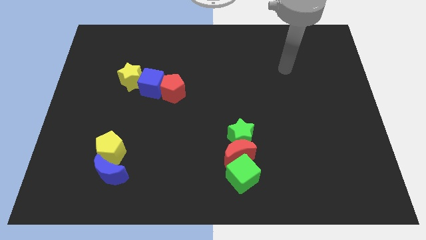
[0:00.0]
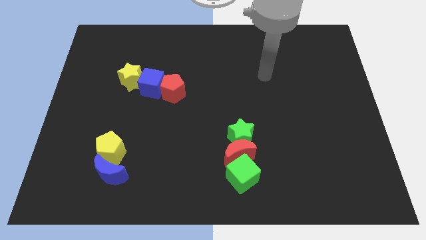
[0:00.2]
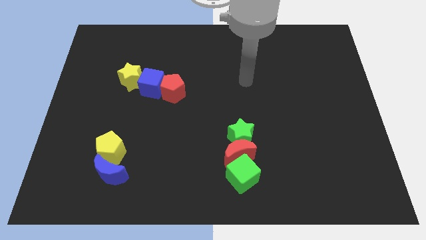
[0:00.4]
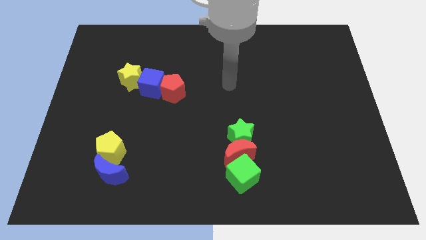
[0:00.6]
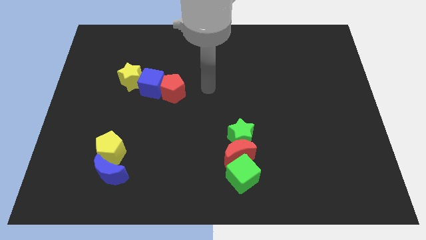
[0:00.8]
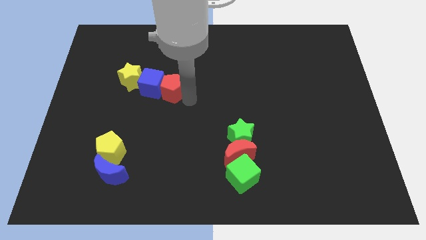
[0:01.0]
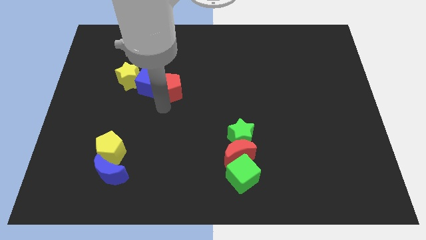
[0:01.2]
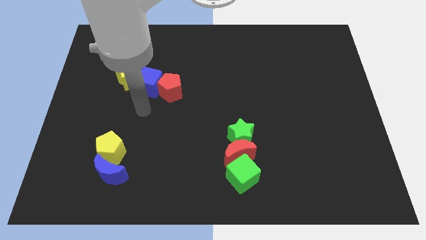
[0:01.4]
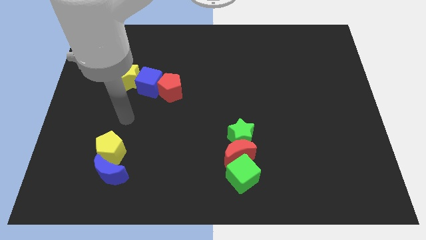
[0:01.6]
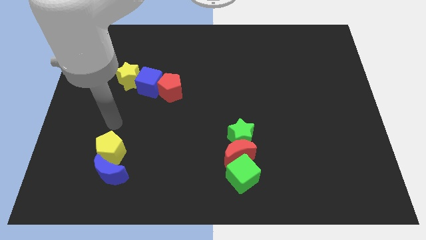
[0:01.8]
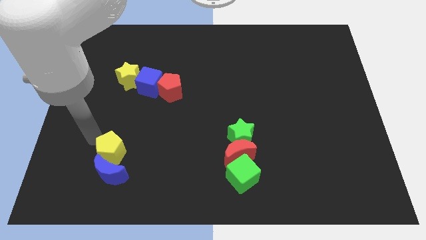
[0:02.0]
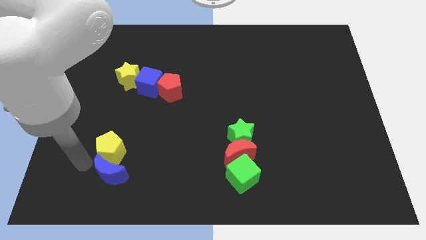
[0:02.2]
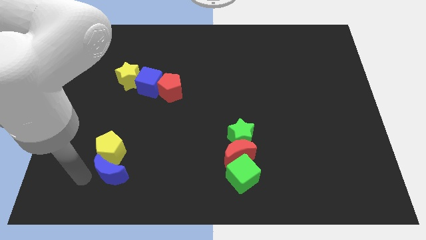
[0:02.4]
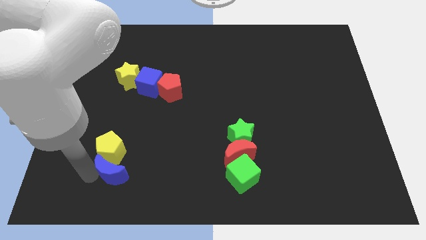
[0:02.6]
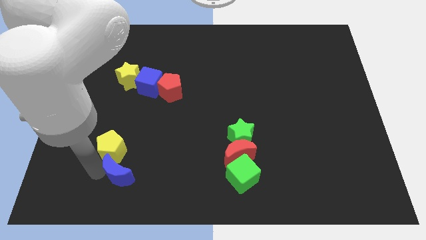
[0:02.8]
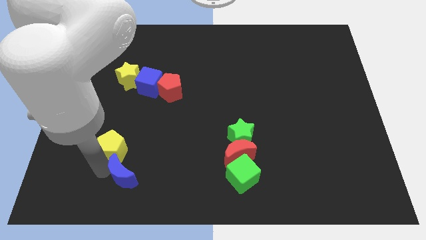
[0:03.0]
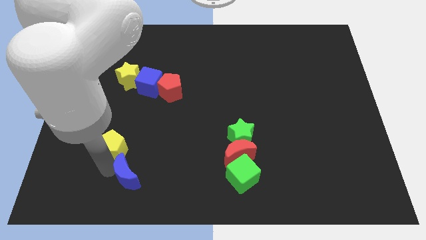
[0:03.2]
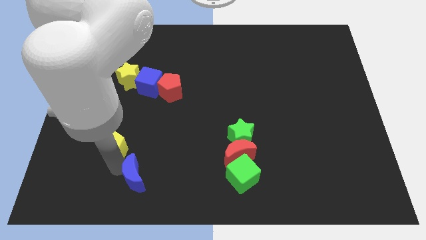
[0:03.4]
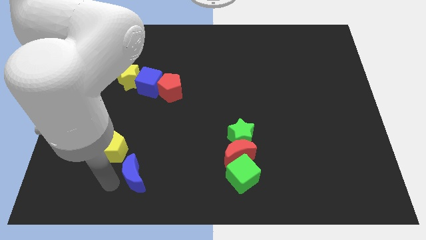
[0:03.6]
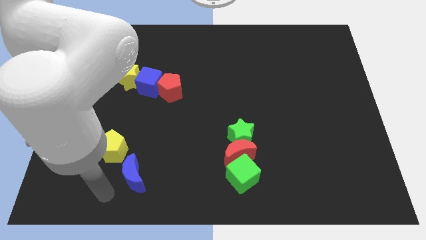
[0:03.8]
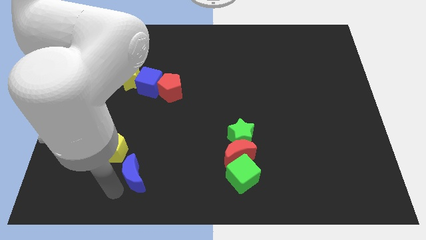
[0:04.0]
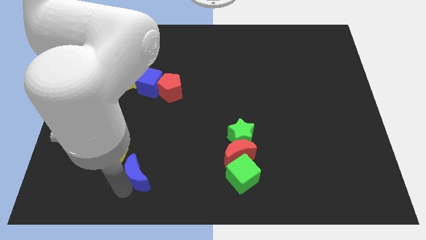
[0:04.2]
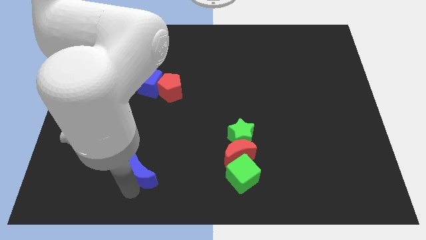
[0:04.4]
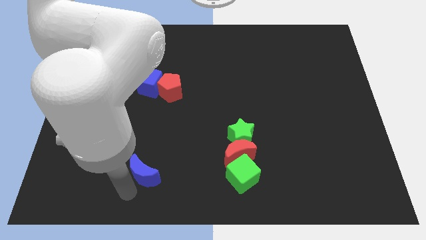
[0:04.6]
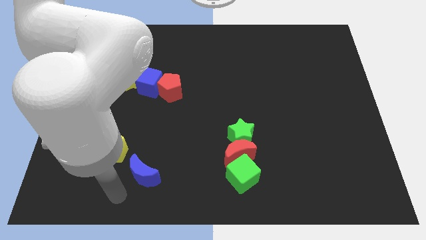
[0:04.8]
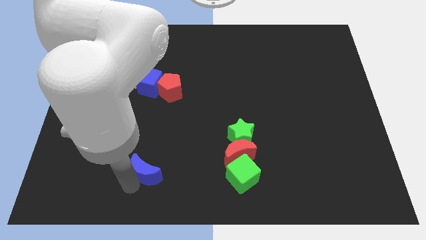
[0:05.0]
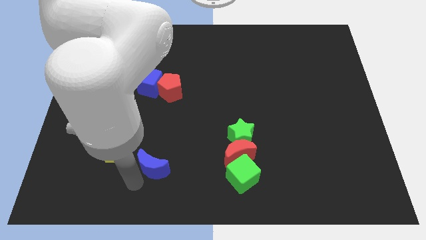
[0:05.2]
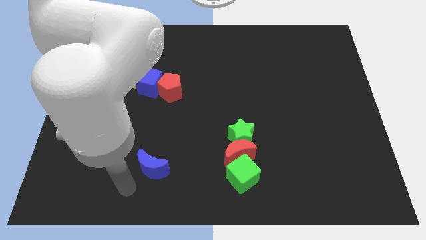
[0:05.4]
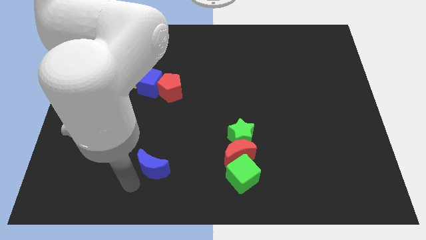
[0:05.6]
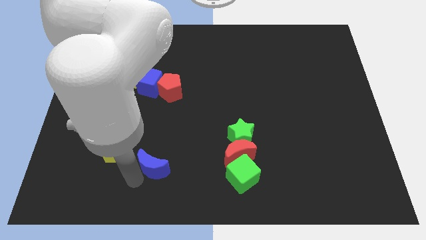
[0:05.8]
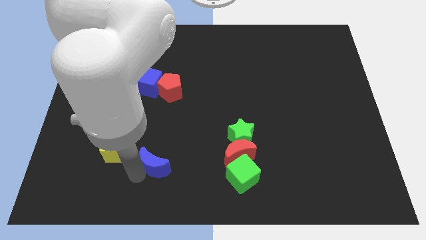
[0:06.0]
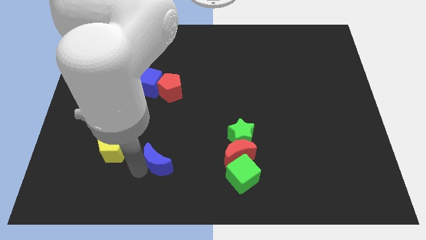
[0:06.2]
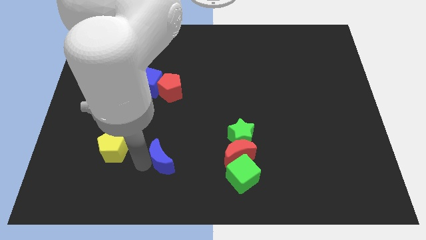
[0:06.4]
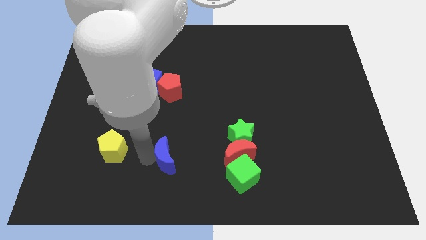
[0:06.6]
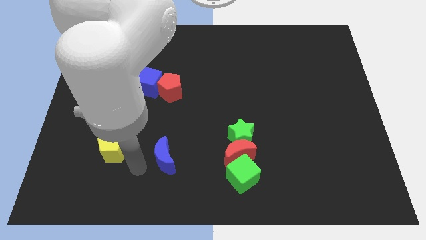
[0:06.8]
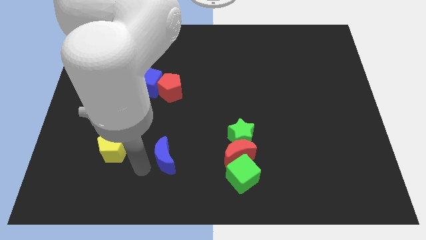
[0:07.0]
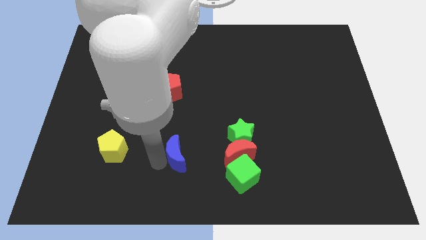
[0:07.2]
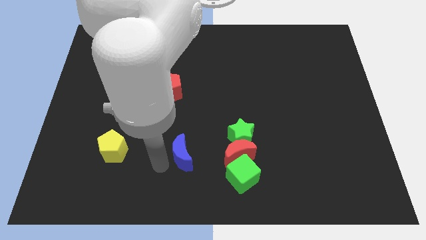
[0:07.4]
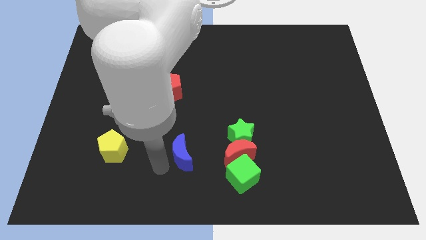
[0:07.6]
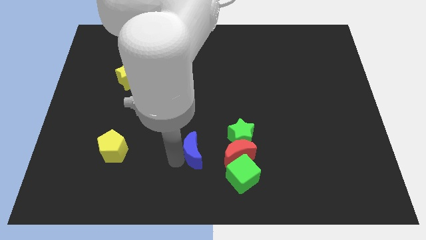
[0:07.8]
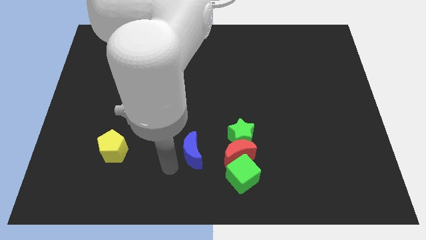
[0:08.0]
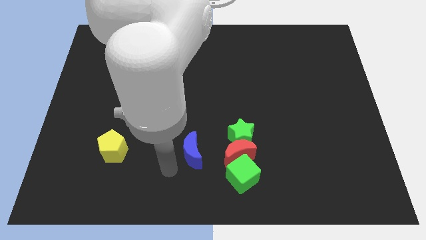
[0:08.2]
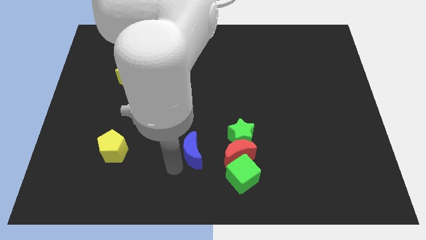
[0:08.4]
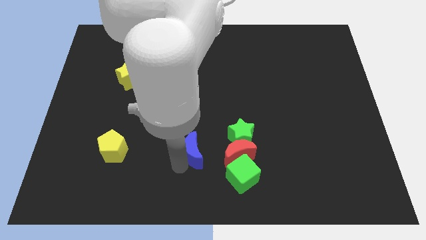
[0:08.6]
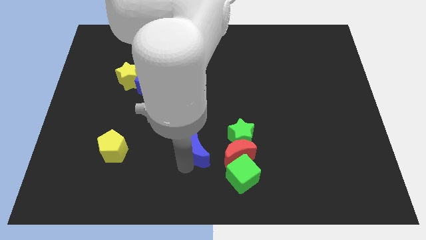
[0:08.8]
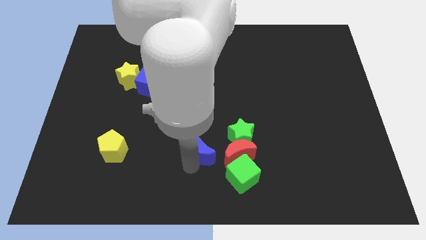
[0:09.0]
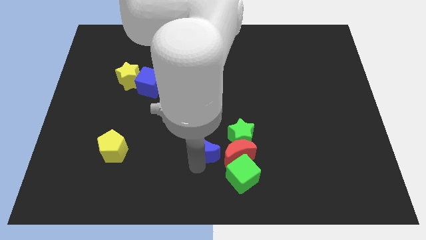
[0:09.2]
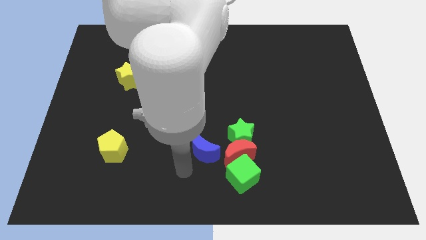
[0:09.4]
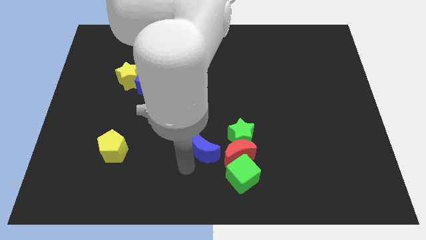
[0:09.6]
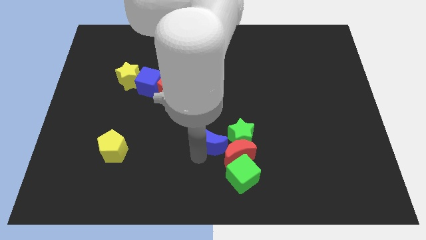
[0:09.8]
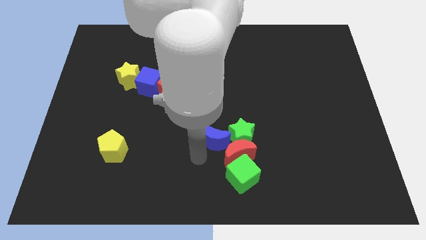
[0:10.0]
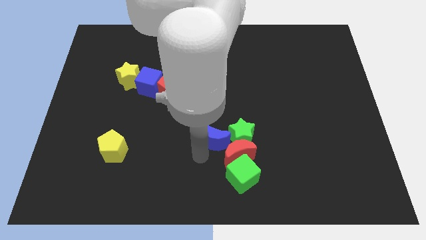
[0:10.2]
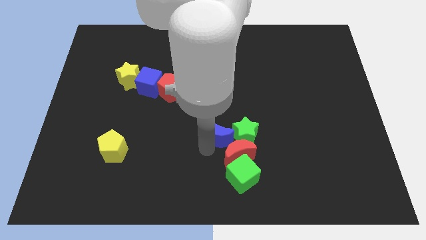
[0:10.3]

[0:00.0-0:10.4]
slide the blue moon to the top of the red moon

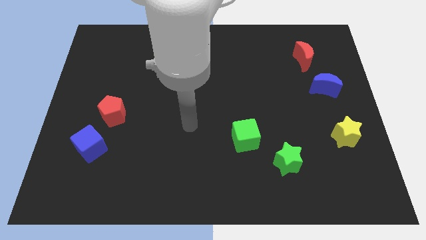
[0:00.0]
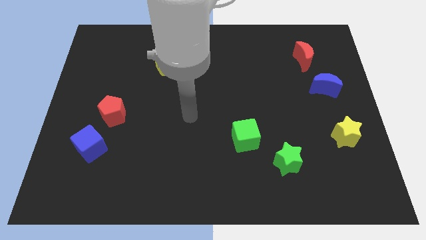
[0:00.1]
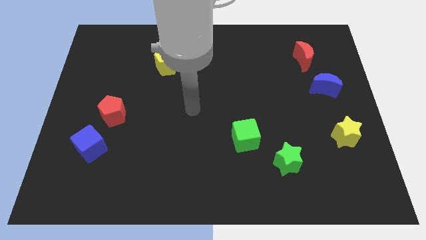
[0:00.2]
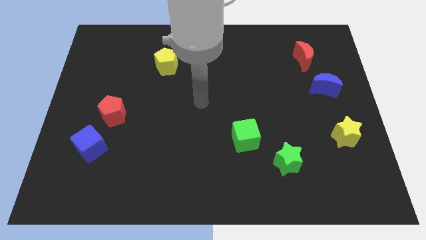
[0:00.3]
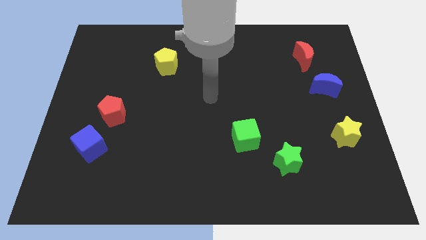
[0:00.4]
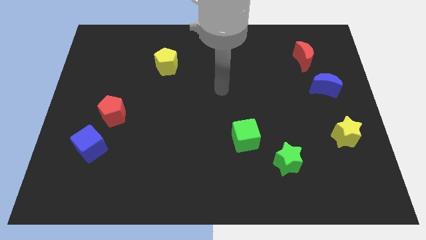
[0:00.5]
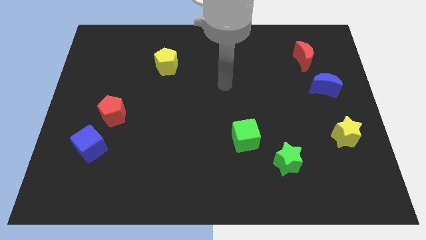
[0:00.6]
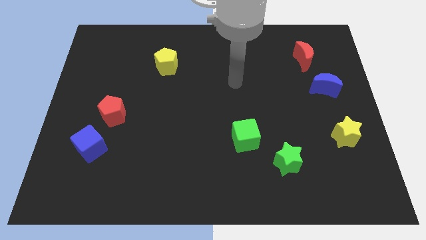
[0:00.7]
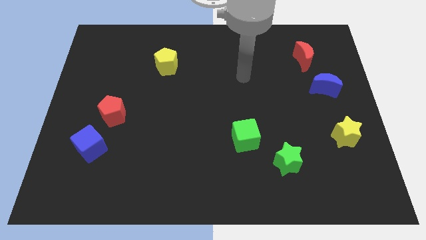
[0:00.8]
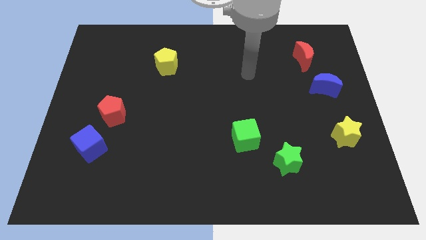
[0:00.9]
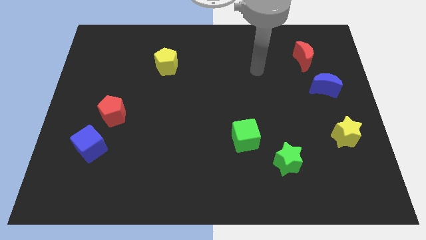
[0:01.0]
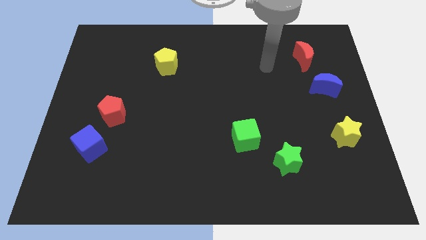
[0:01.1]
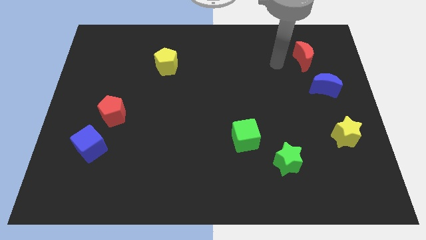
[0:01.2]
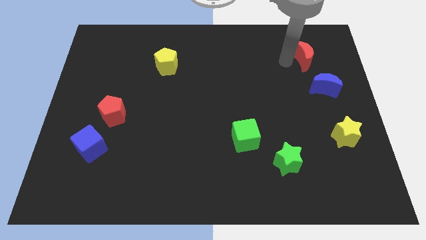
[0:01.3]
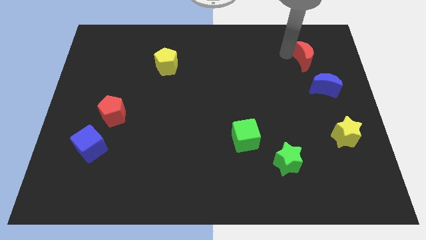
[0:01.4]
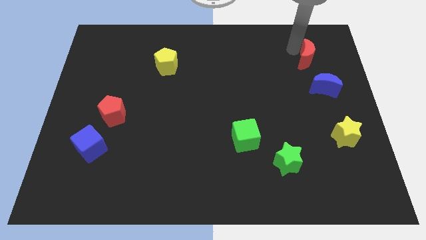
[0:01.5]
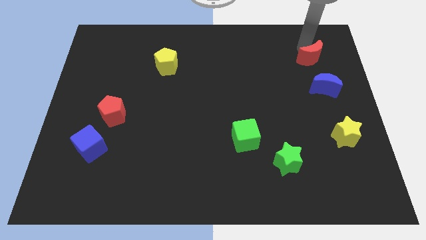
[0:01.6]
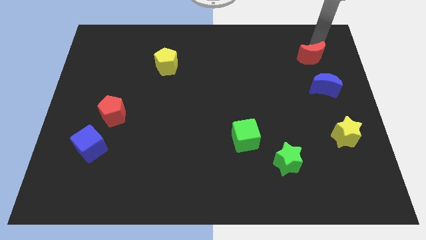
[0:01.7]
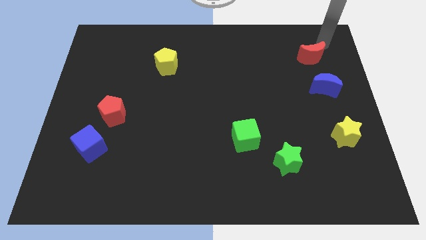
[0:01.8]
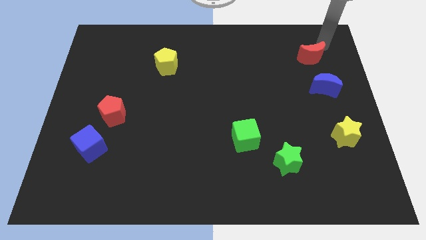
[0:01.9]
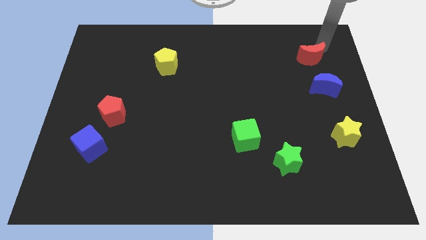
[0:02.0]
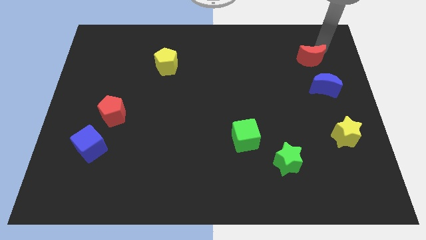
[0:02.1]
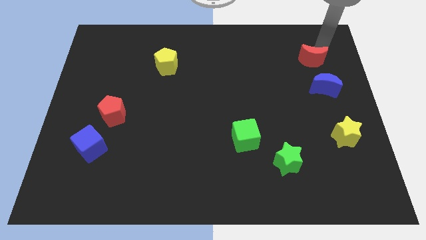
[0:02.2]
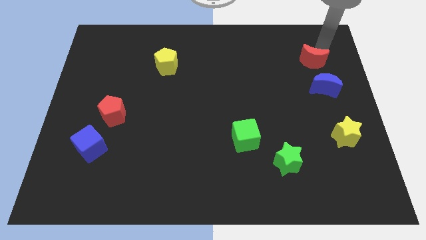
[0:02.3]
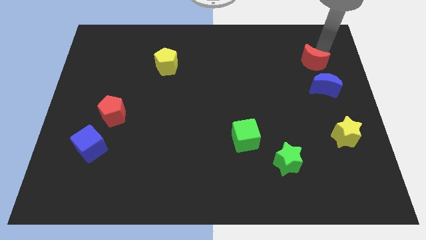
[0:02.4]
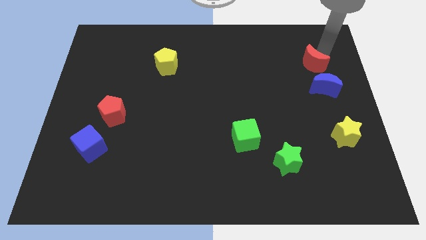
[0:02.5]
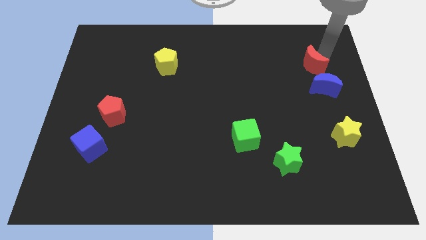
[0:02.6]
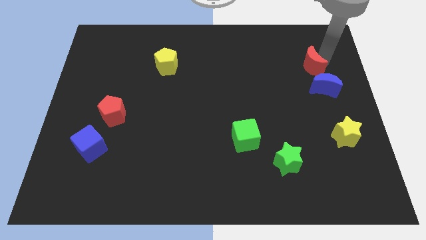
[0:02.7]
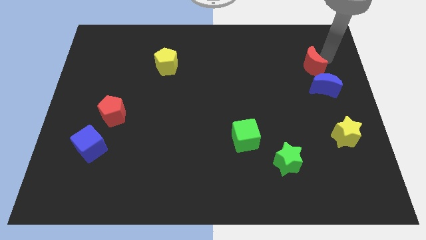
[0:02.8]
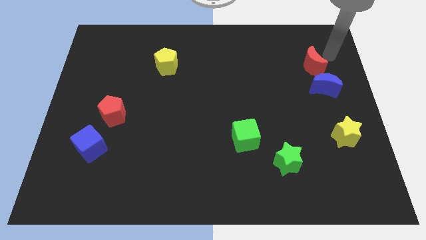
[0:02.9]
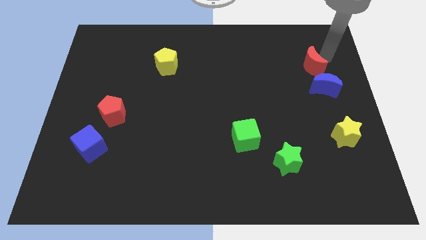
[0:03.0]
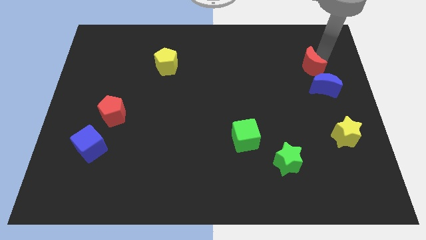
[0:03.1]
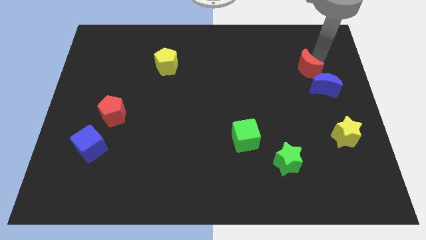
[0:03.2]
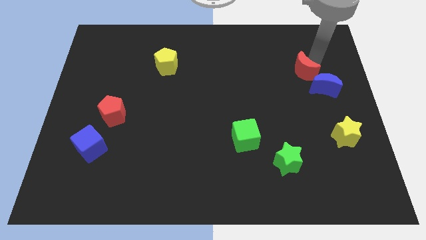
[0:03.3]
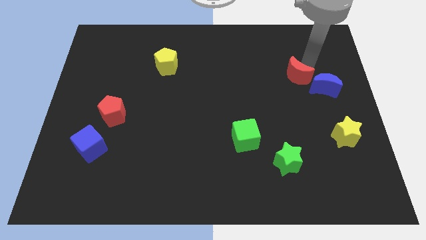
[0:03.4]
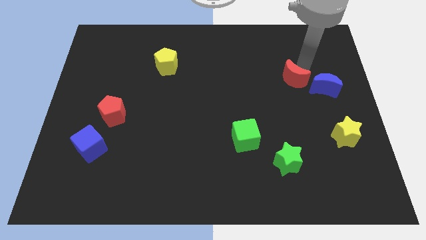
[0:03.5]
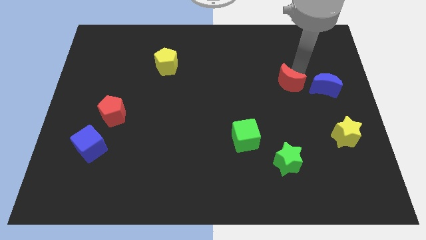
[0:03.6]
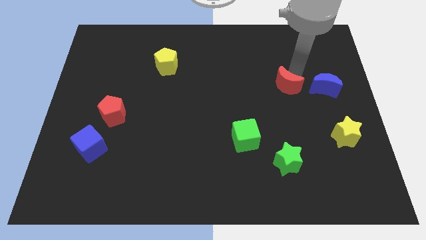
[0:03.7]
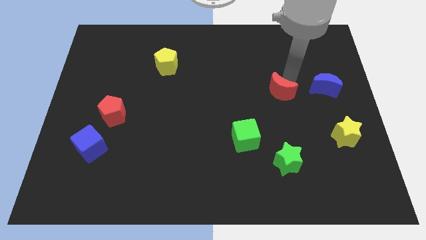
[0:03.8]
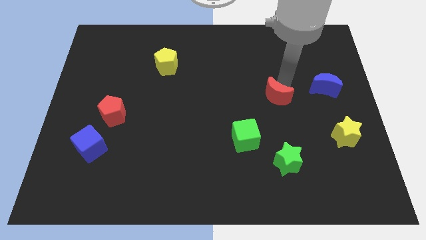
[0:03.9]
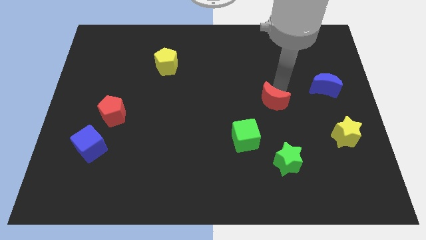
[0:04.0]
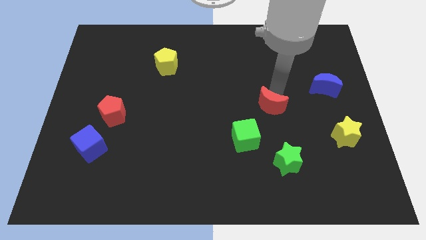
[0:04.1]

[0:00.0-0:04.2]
push the red moon diagonally up and to the right of the green cube
